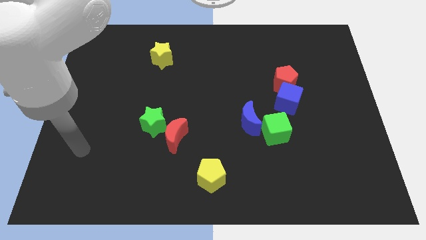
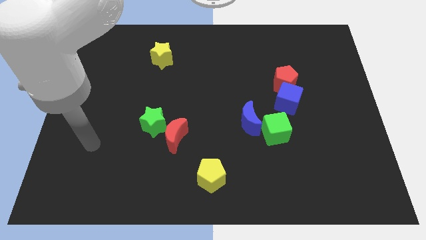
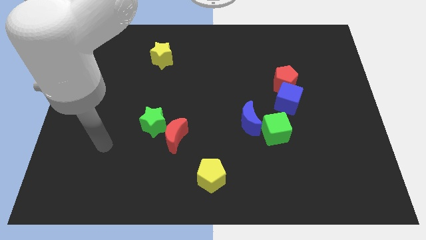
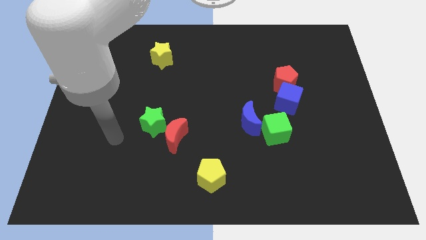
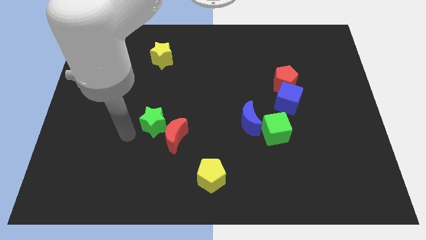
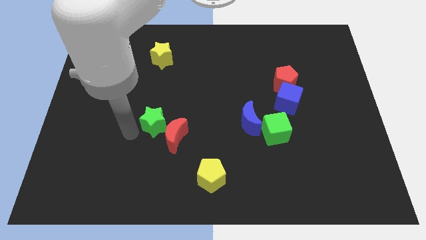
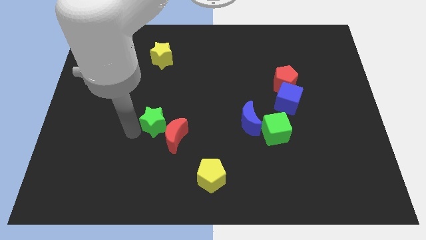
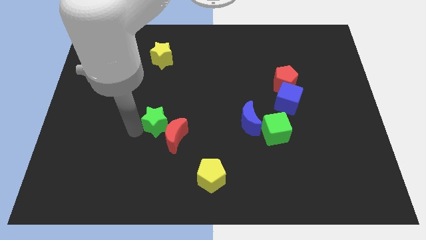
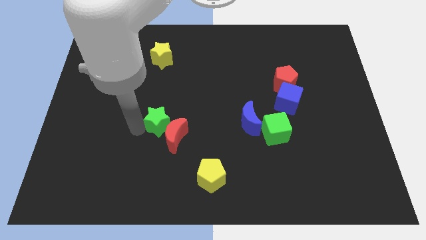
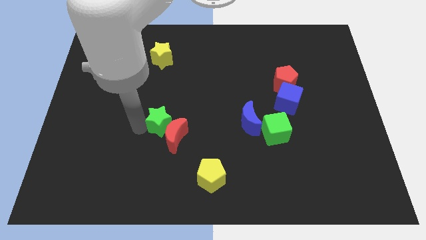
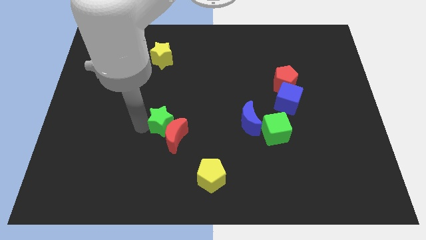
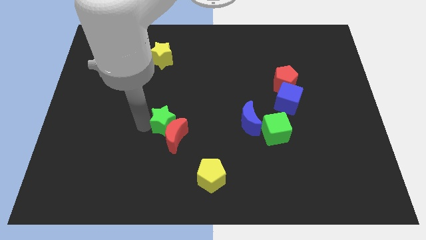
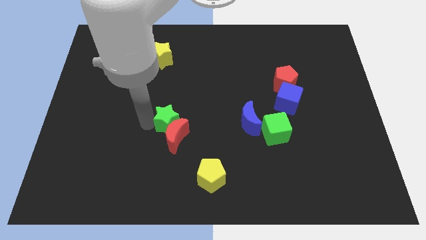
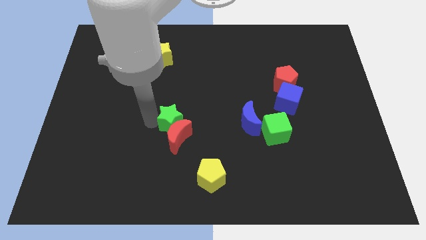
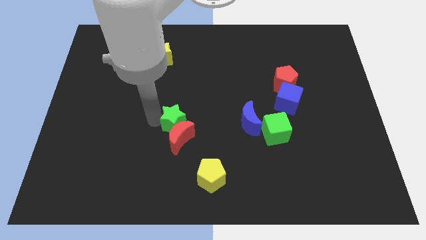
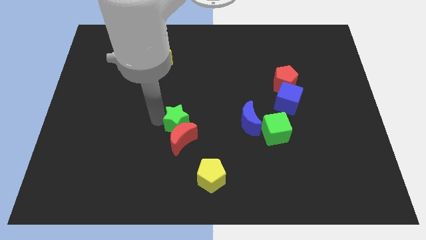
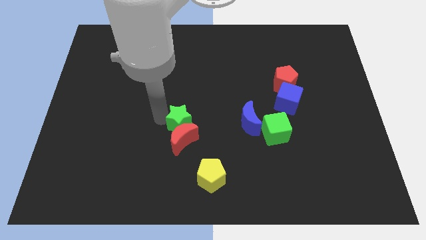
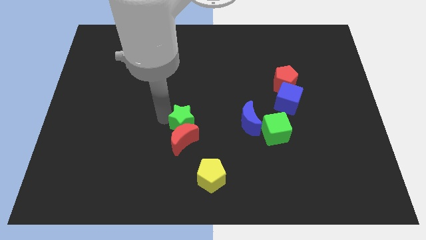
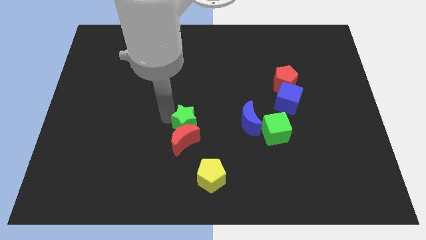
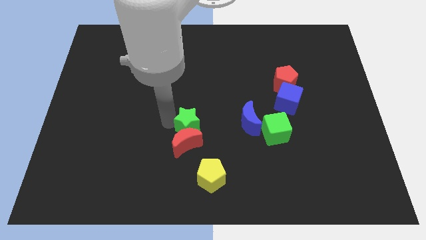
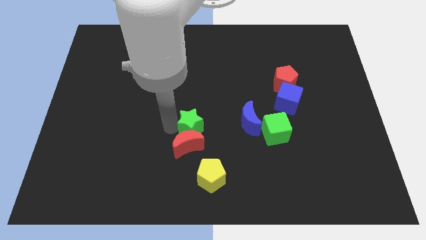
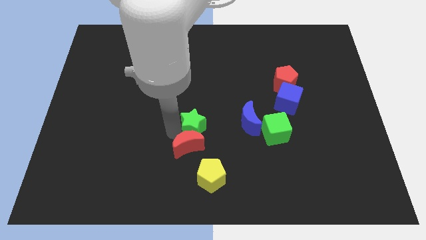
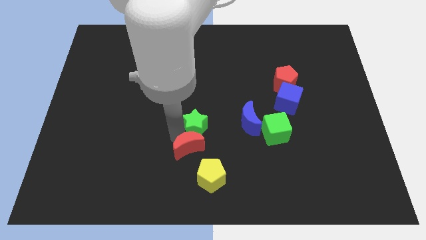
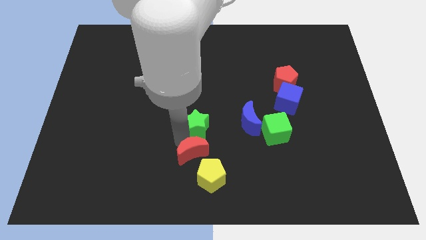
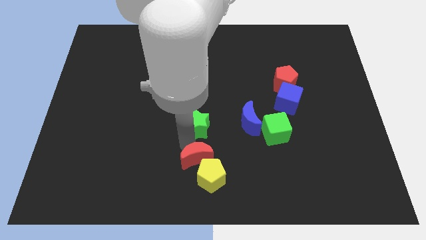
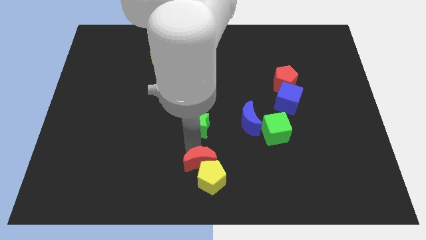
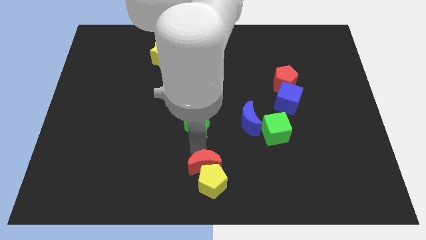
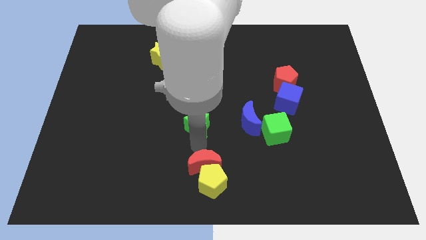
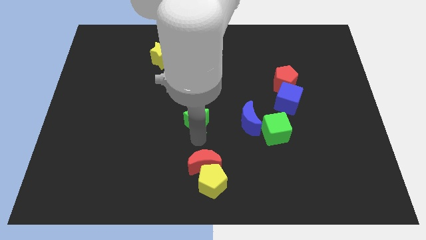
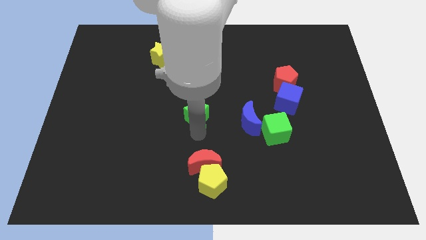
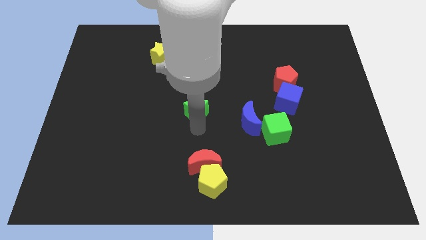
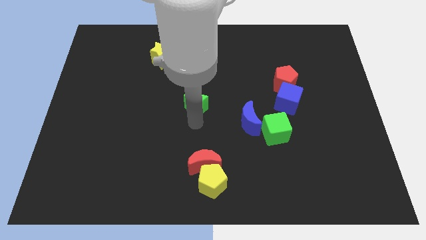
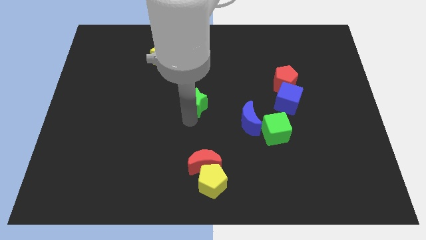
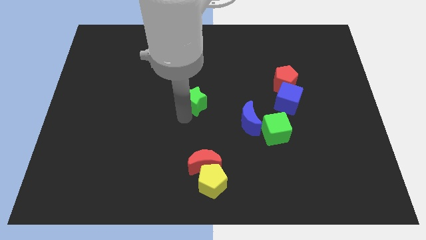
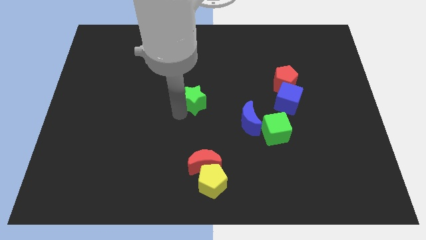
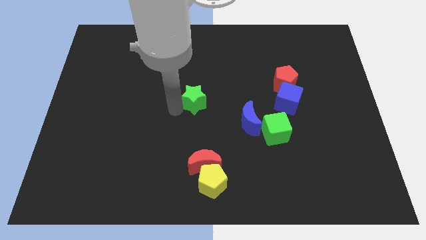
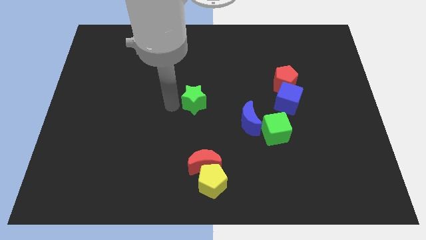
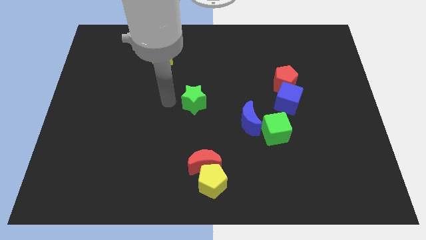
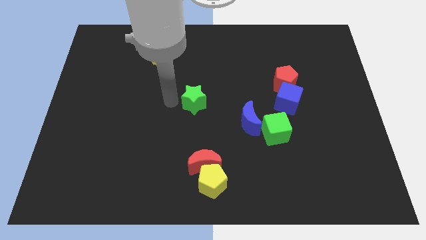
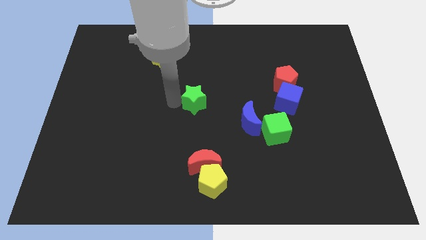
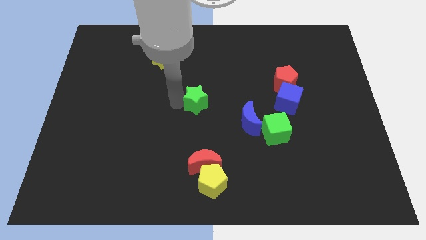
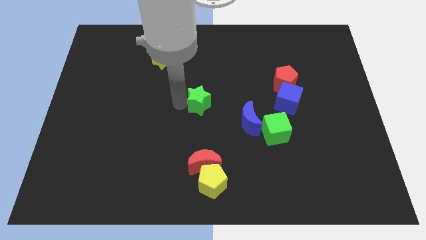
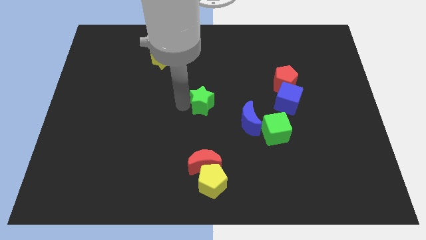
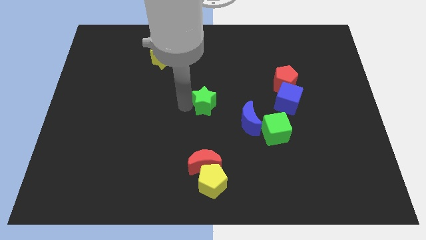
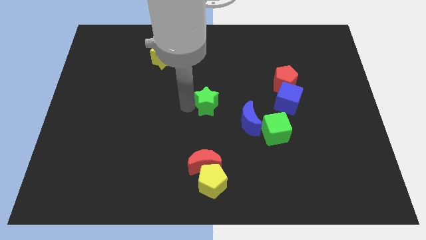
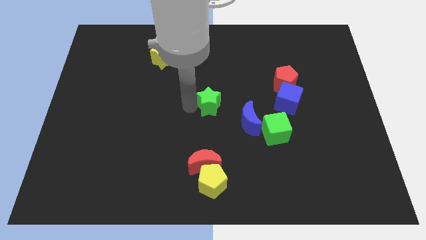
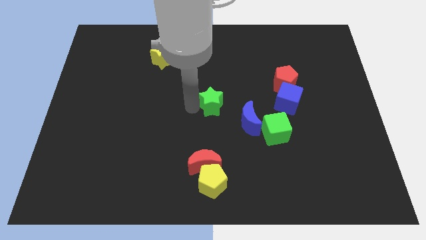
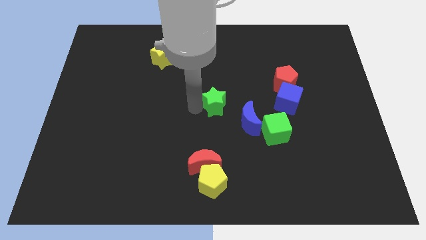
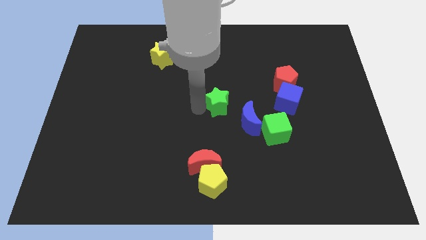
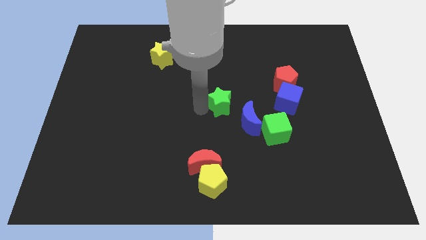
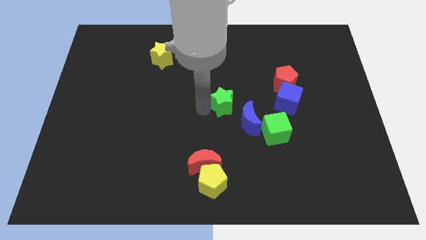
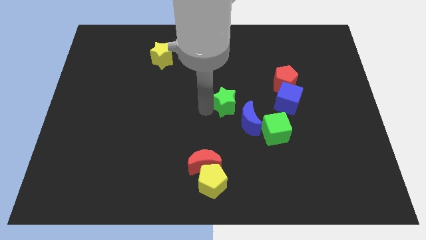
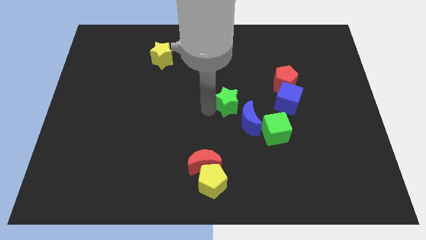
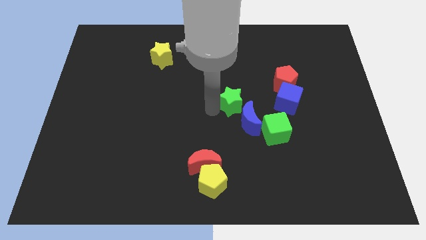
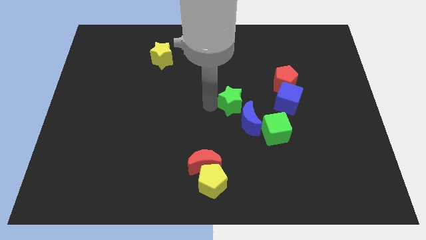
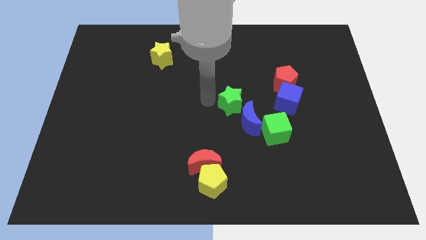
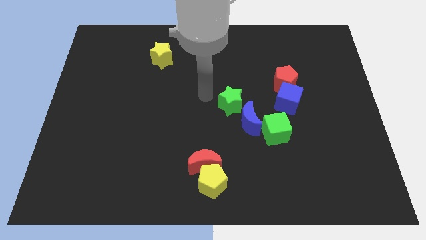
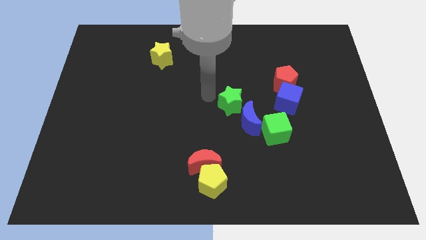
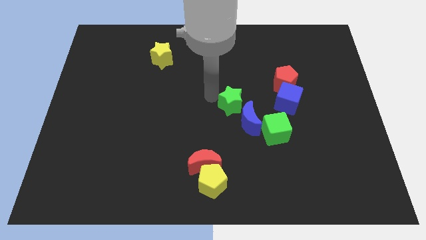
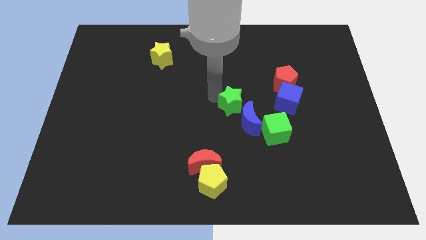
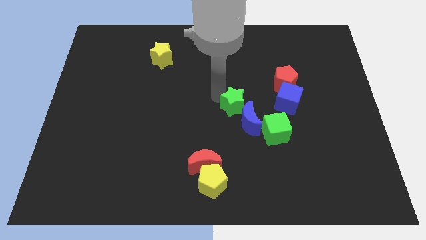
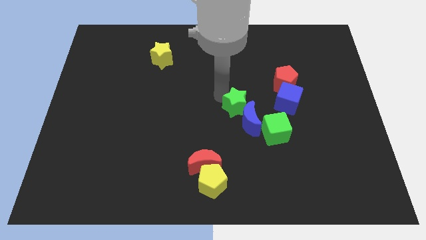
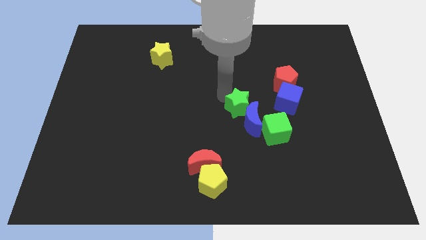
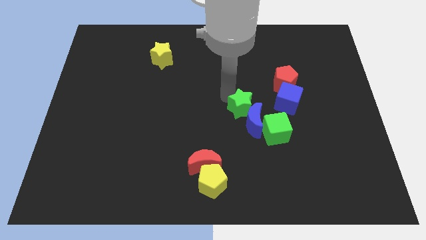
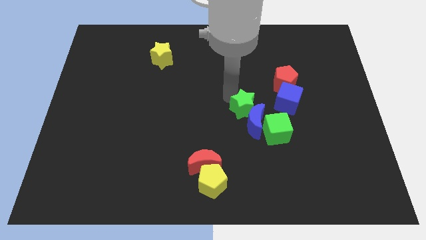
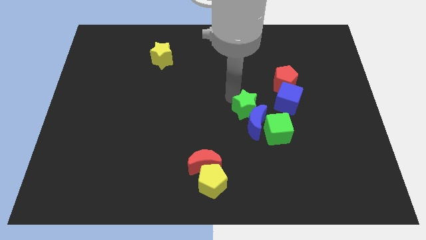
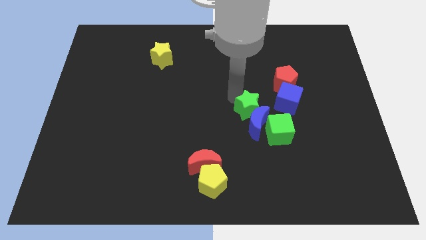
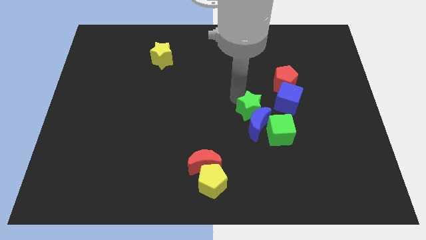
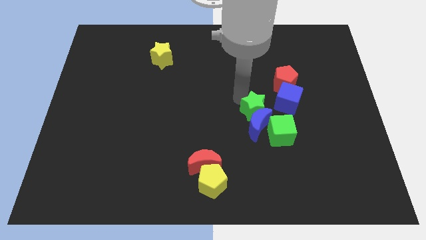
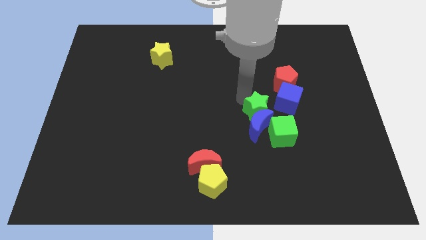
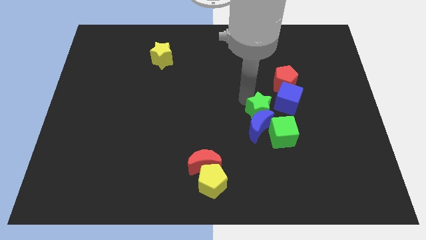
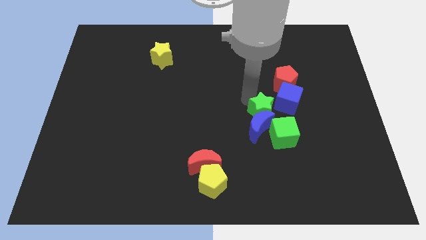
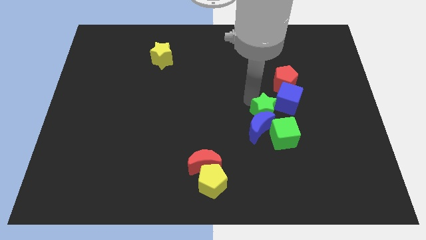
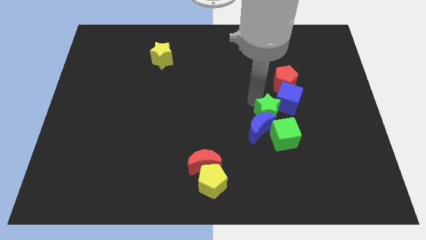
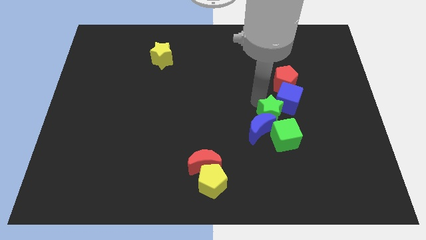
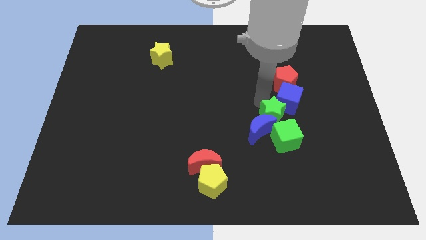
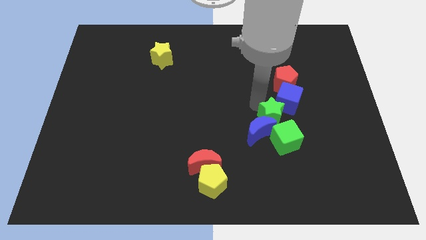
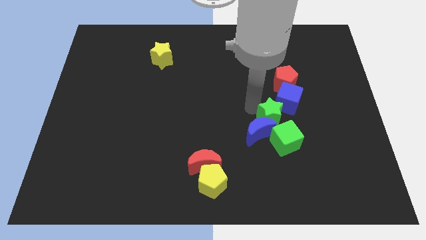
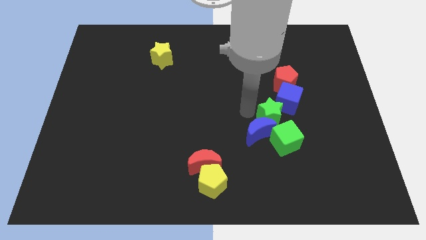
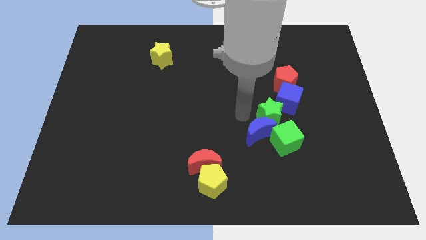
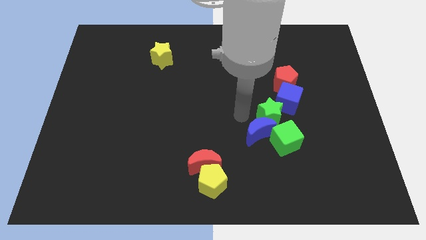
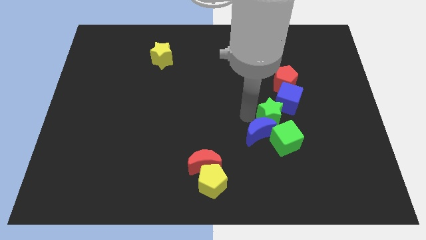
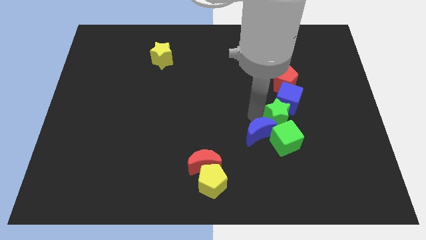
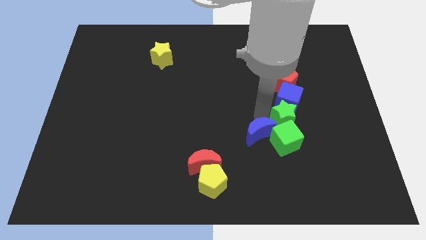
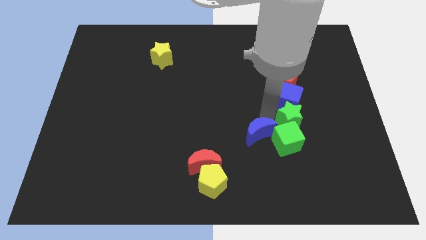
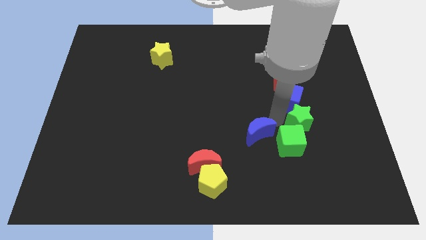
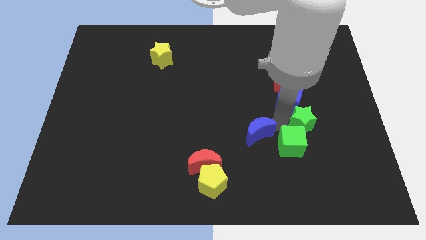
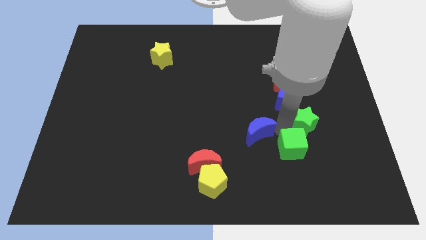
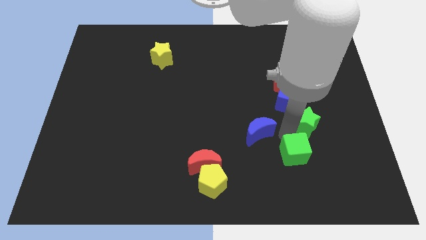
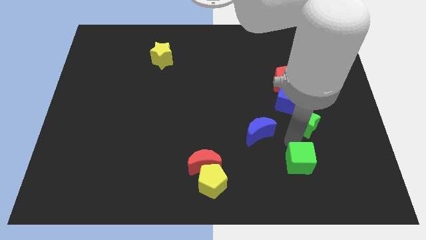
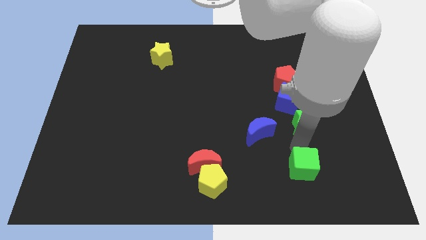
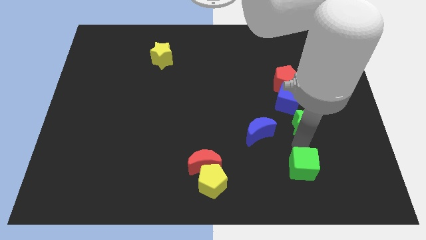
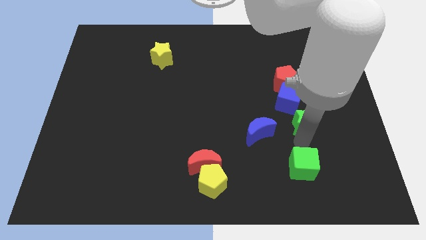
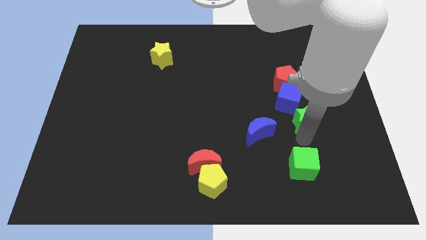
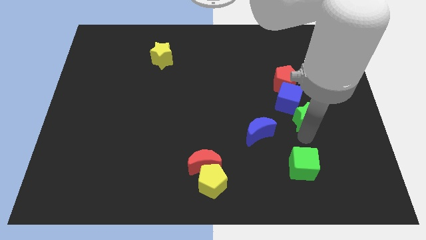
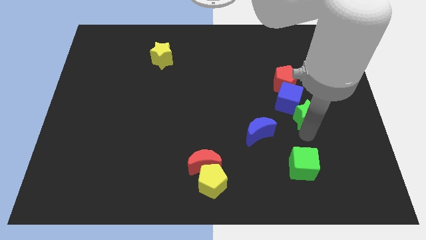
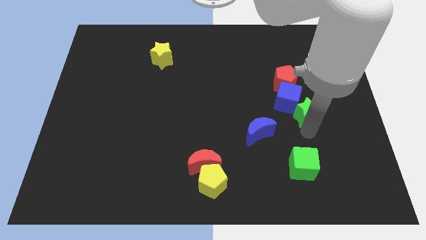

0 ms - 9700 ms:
put the green star to the bottom right of the red pentagon
